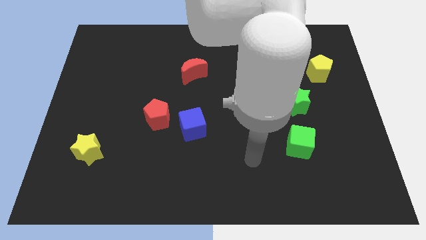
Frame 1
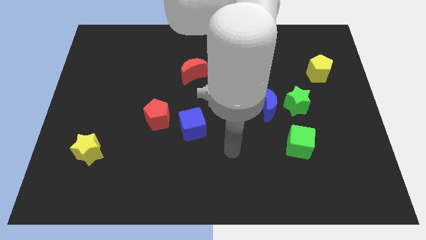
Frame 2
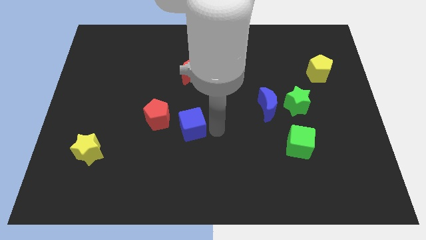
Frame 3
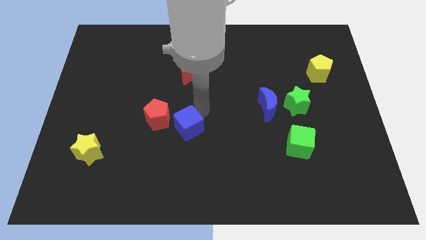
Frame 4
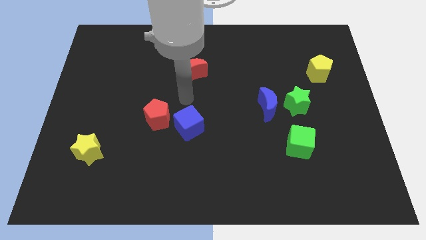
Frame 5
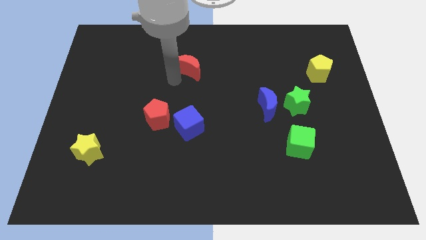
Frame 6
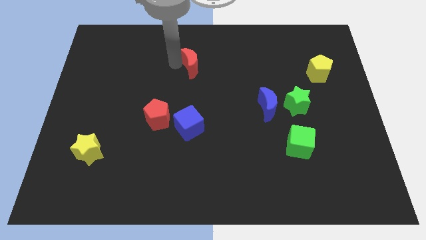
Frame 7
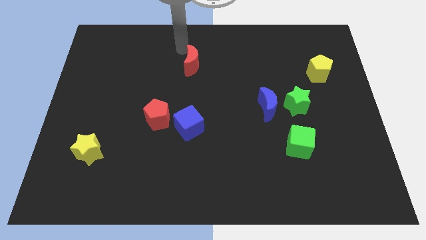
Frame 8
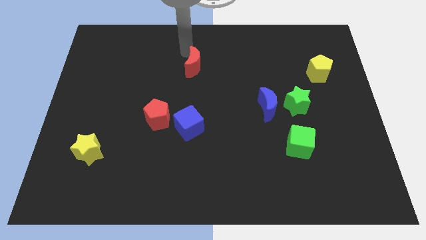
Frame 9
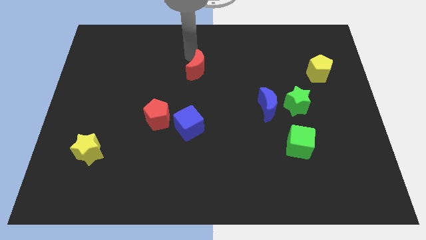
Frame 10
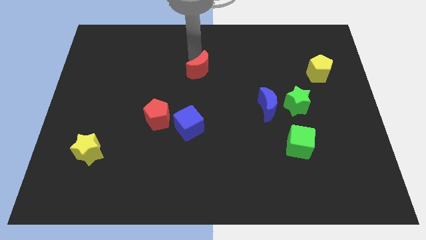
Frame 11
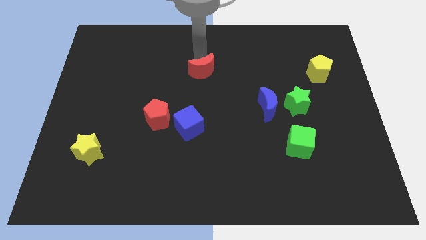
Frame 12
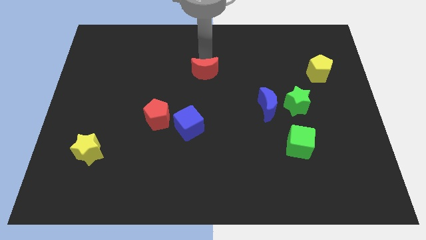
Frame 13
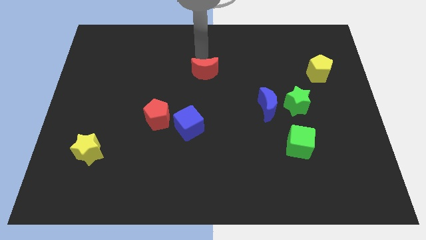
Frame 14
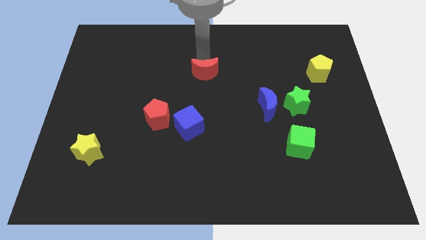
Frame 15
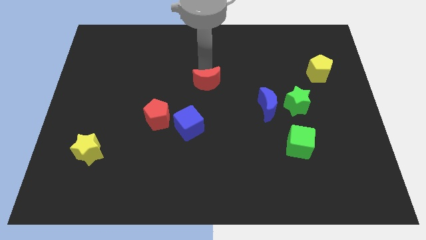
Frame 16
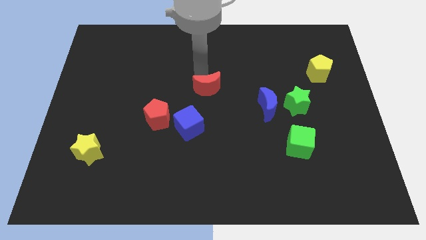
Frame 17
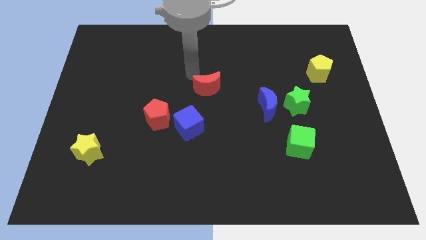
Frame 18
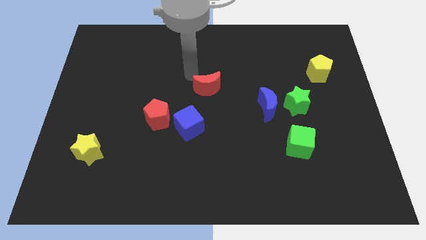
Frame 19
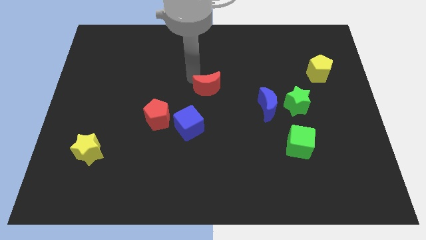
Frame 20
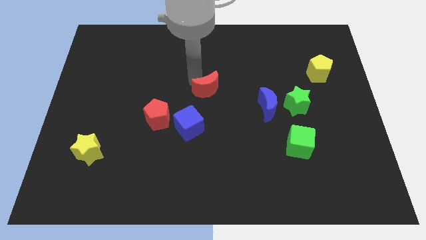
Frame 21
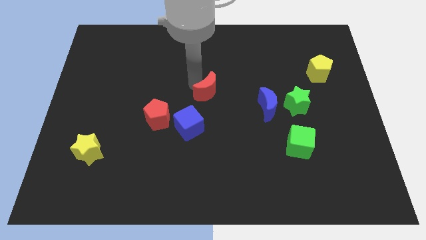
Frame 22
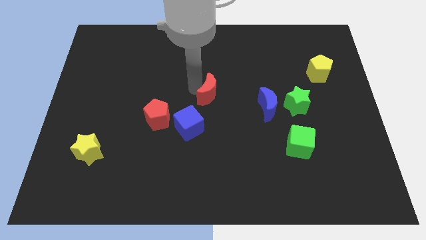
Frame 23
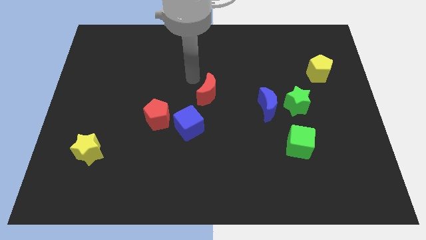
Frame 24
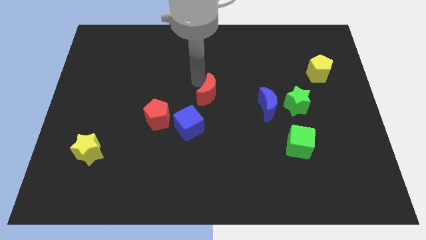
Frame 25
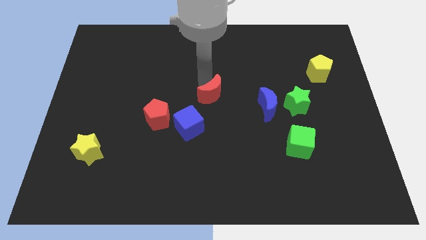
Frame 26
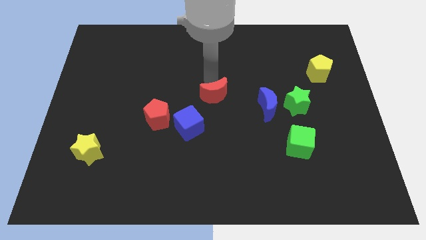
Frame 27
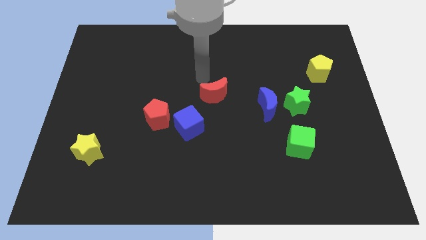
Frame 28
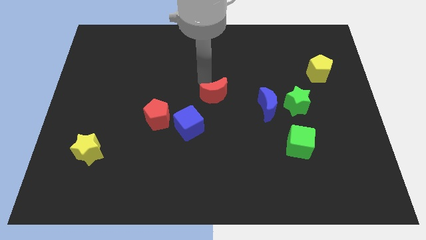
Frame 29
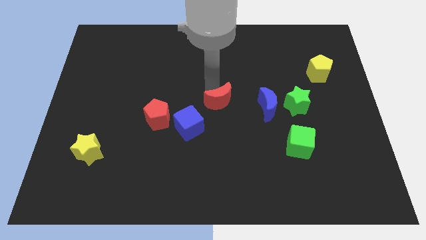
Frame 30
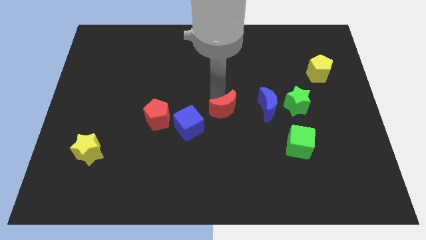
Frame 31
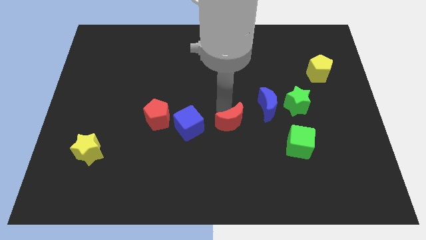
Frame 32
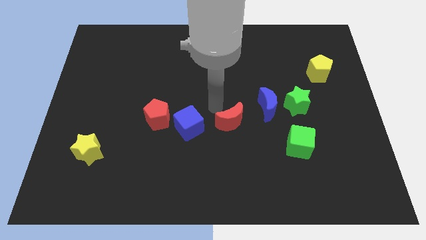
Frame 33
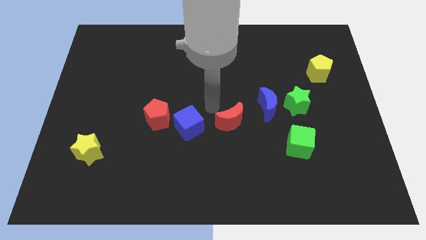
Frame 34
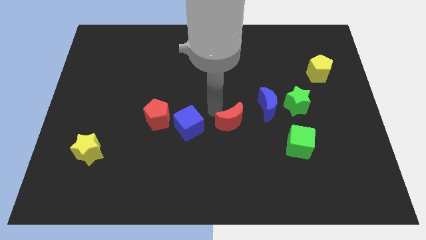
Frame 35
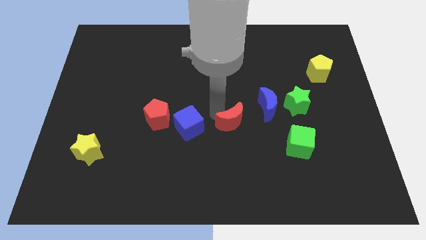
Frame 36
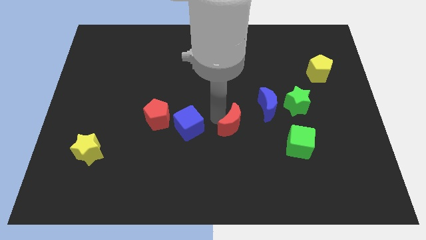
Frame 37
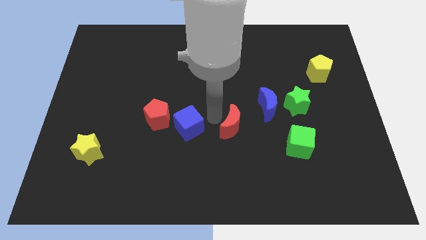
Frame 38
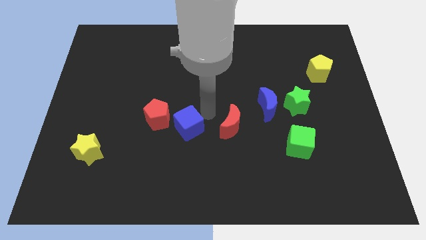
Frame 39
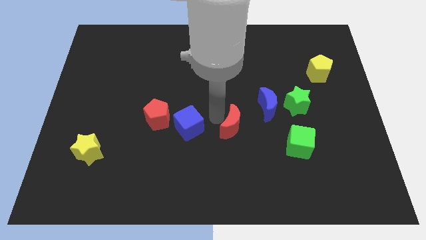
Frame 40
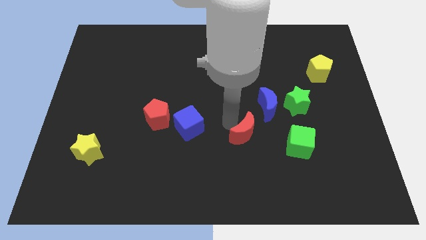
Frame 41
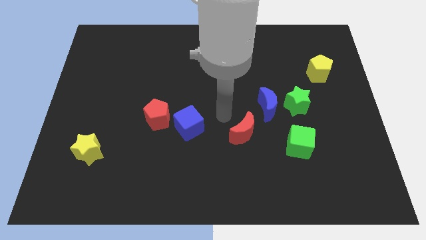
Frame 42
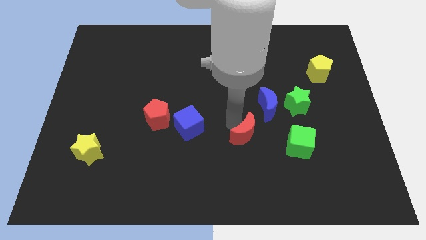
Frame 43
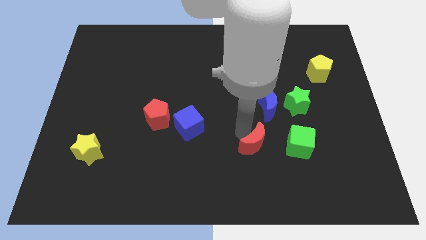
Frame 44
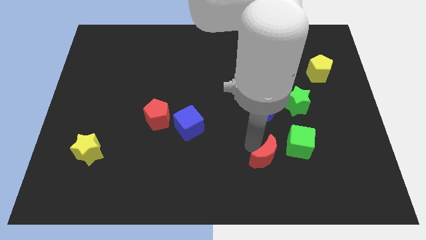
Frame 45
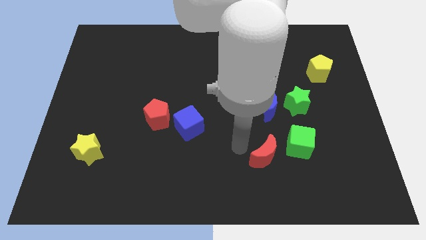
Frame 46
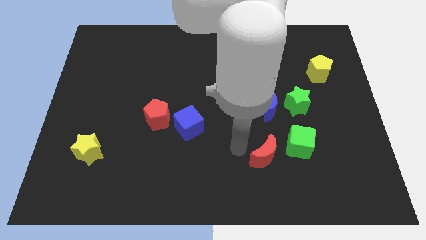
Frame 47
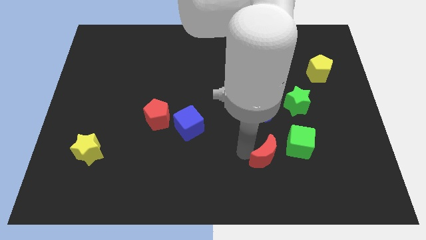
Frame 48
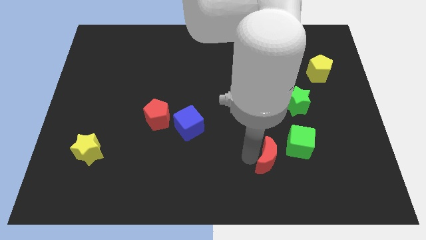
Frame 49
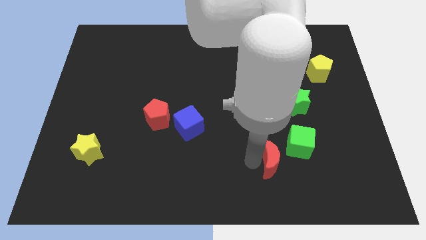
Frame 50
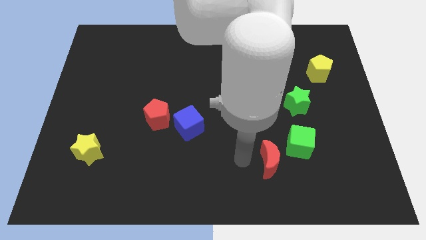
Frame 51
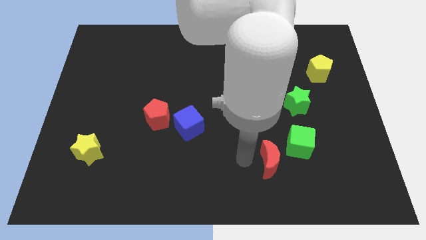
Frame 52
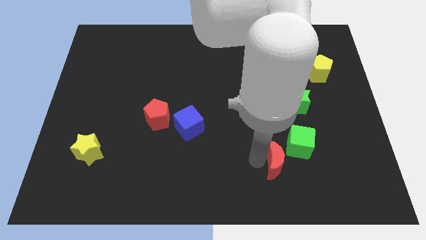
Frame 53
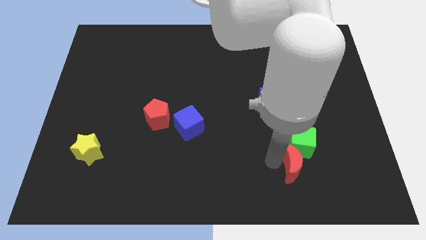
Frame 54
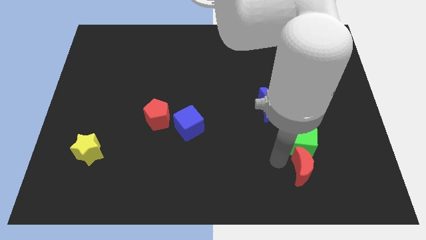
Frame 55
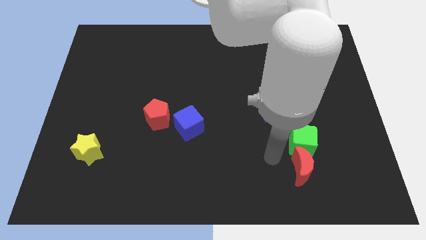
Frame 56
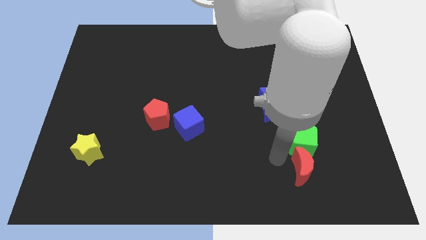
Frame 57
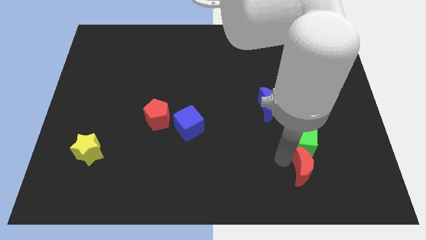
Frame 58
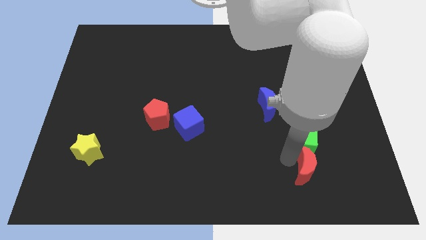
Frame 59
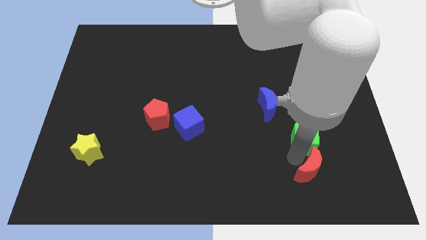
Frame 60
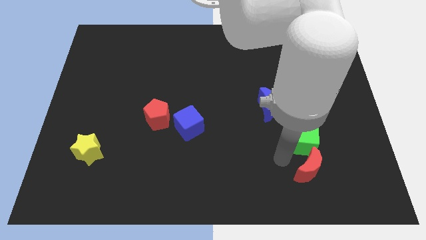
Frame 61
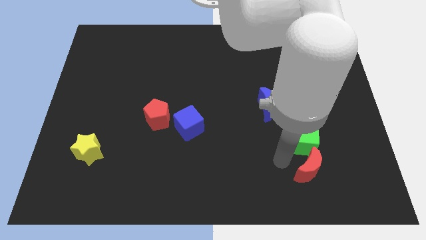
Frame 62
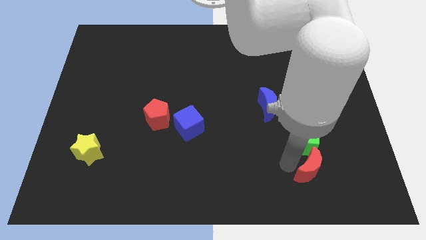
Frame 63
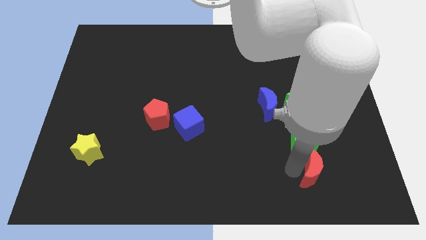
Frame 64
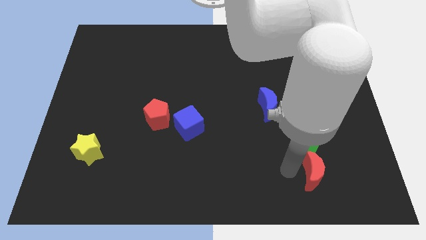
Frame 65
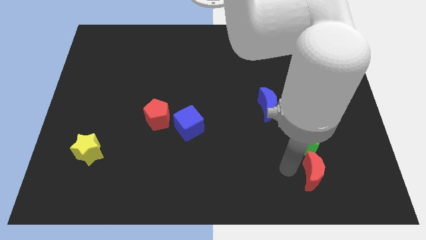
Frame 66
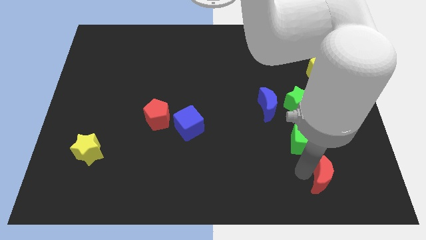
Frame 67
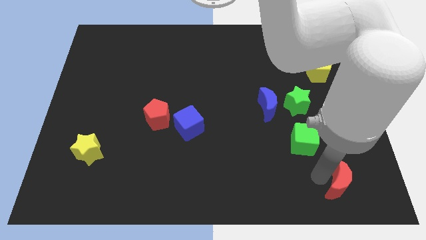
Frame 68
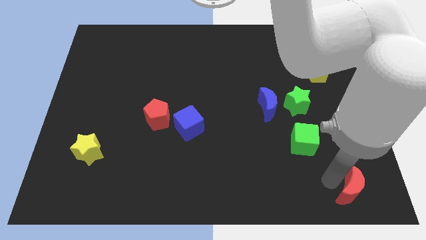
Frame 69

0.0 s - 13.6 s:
push the red moon to the bottom right of the board

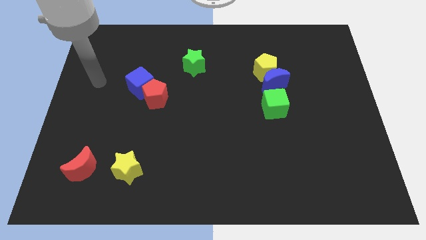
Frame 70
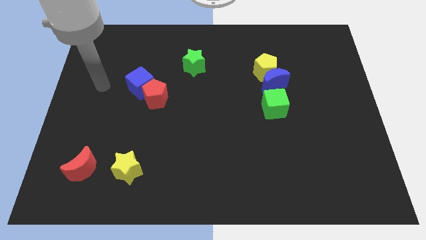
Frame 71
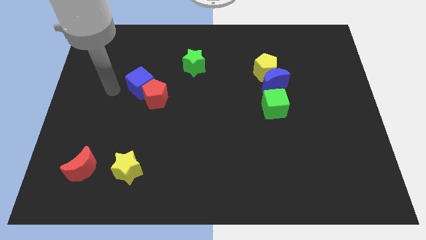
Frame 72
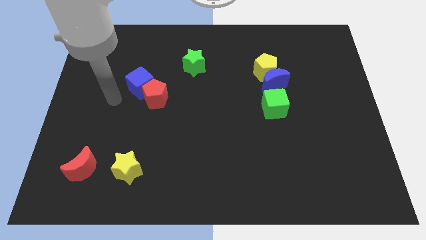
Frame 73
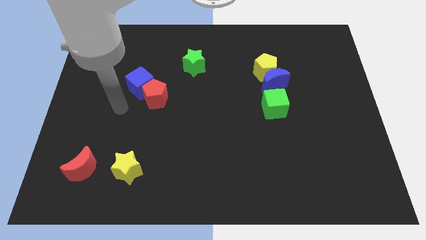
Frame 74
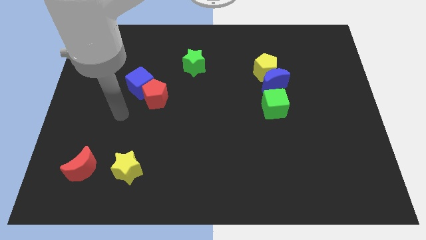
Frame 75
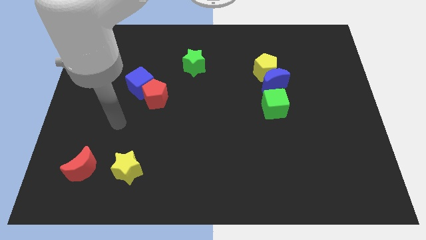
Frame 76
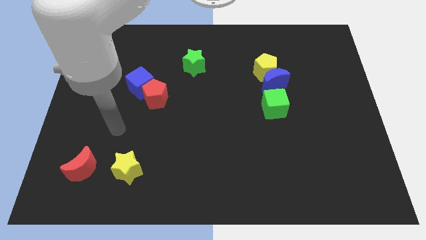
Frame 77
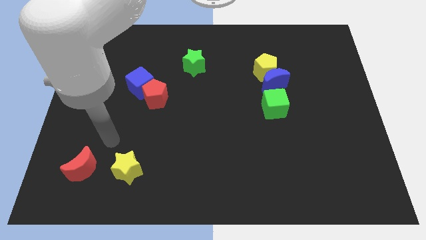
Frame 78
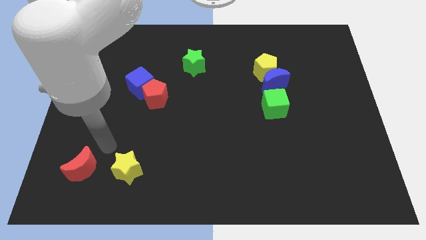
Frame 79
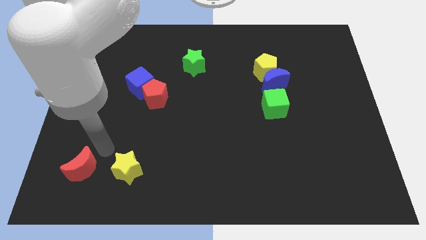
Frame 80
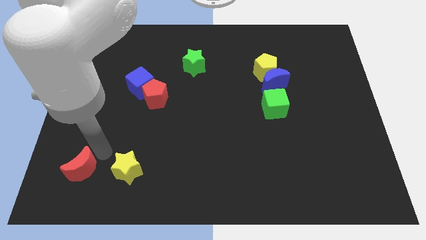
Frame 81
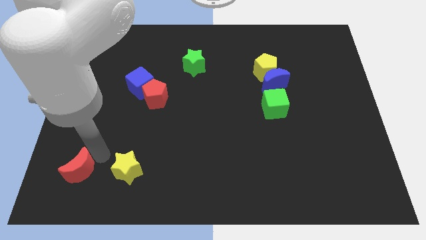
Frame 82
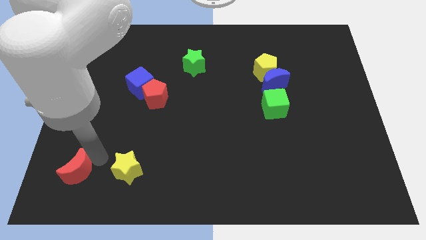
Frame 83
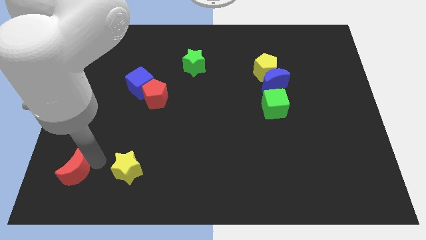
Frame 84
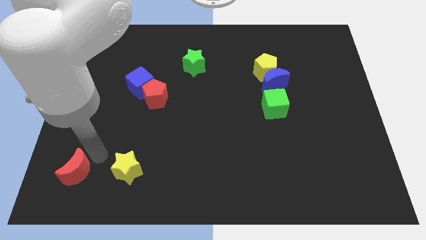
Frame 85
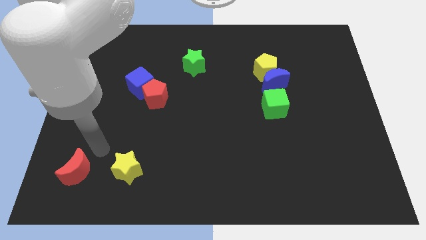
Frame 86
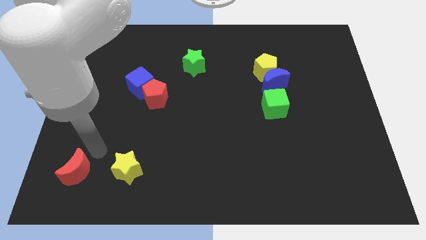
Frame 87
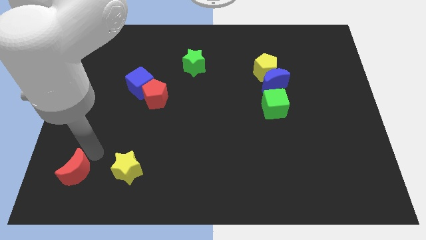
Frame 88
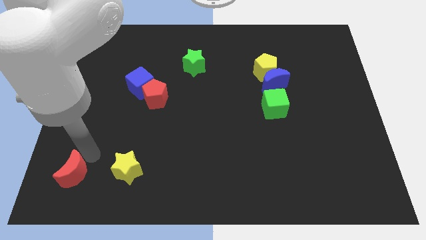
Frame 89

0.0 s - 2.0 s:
push the red moon to the bottom left
